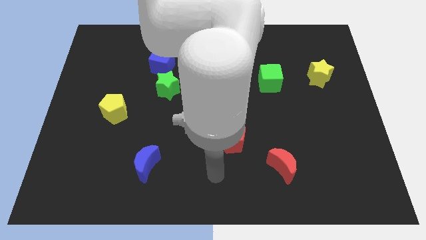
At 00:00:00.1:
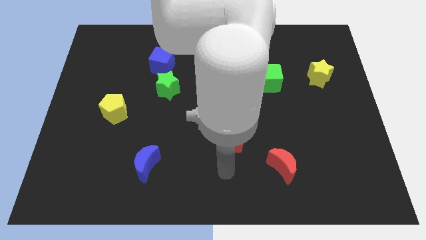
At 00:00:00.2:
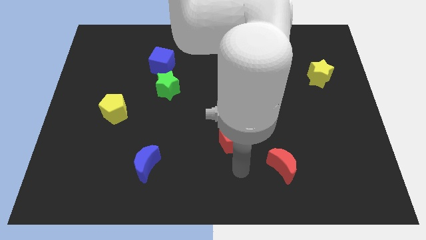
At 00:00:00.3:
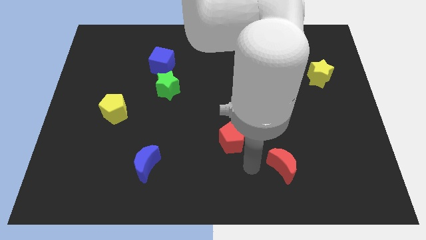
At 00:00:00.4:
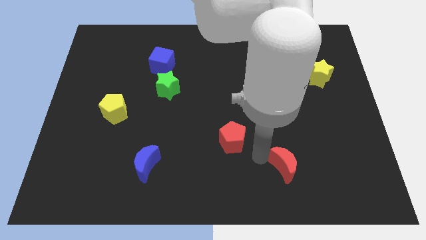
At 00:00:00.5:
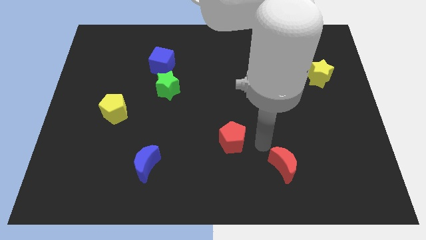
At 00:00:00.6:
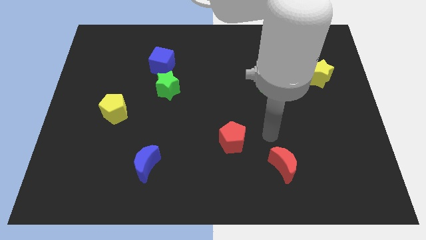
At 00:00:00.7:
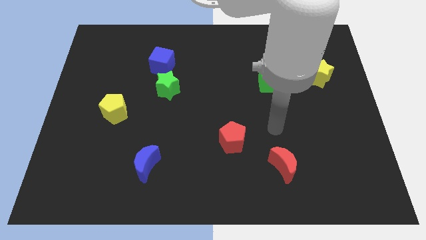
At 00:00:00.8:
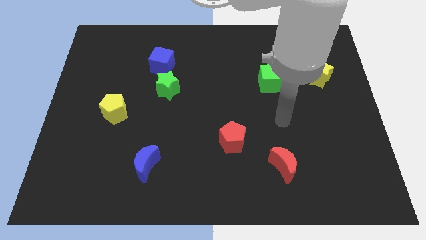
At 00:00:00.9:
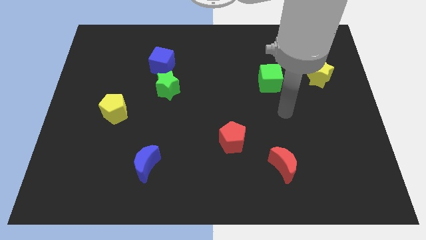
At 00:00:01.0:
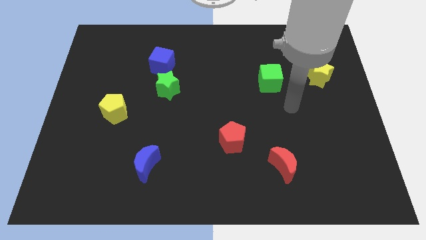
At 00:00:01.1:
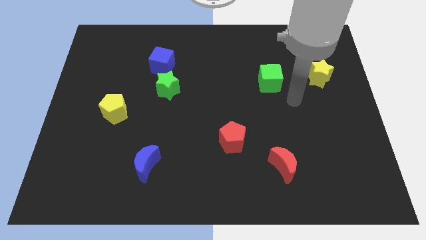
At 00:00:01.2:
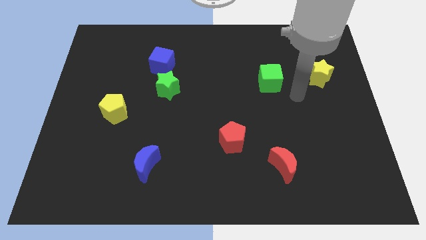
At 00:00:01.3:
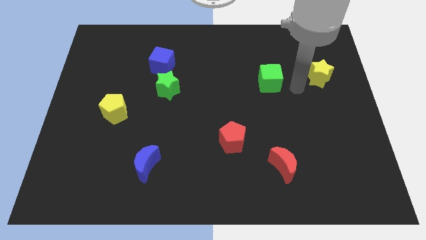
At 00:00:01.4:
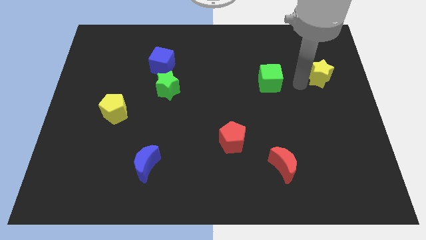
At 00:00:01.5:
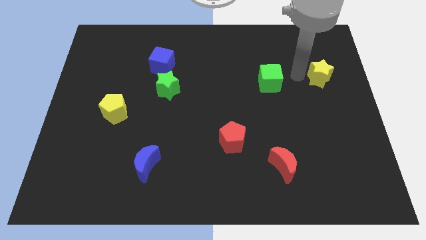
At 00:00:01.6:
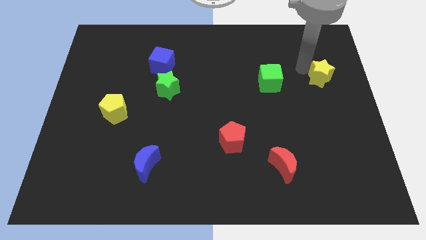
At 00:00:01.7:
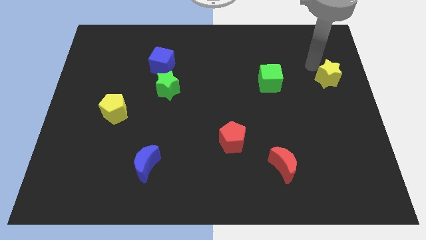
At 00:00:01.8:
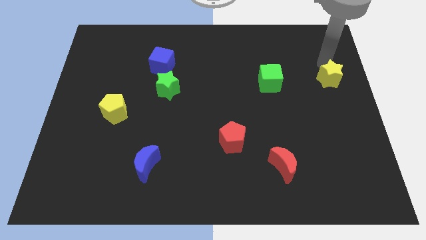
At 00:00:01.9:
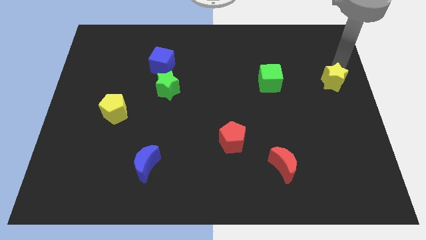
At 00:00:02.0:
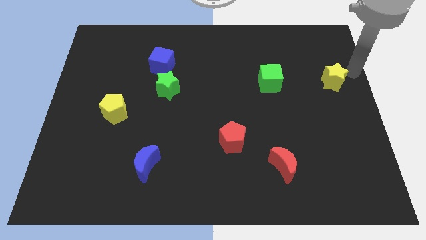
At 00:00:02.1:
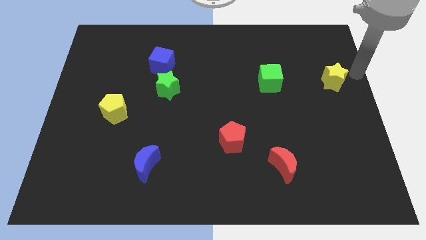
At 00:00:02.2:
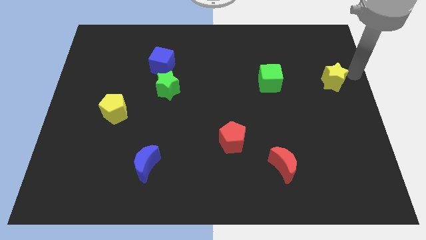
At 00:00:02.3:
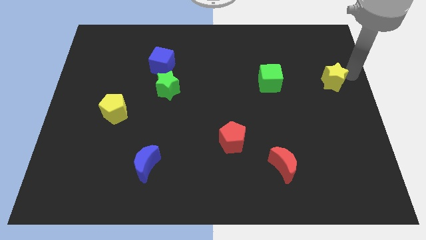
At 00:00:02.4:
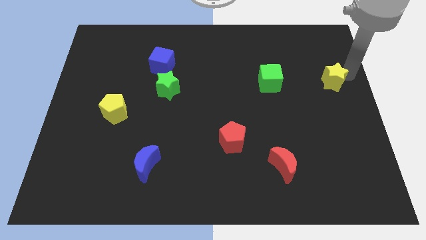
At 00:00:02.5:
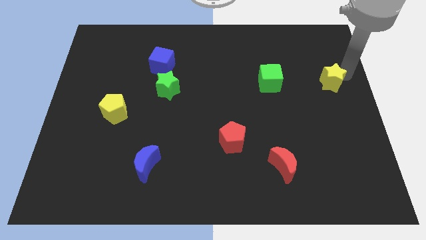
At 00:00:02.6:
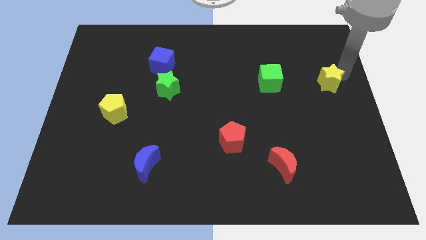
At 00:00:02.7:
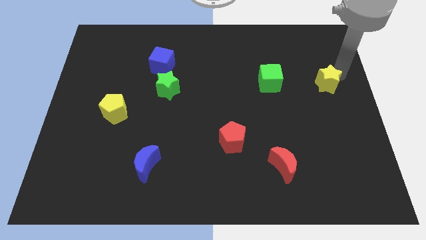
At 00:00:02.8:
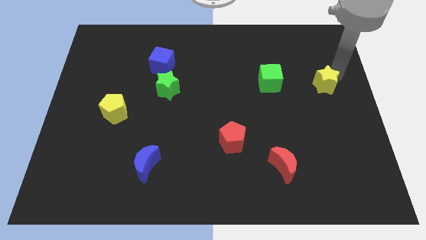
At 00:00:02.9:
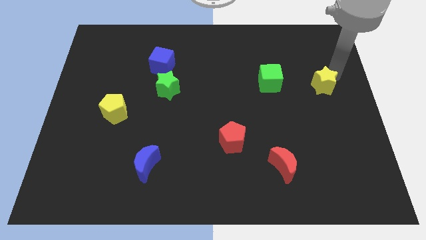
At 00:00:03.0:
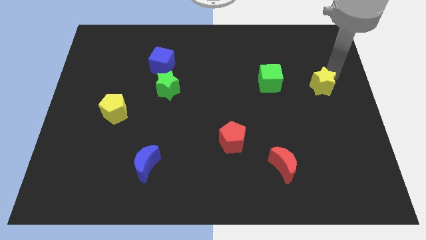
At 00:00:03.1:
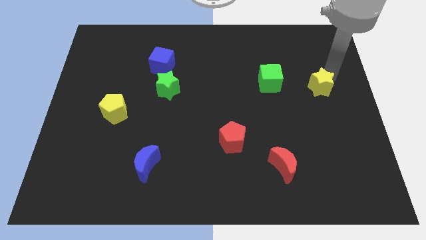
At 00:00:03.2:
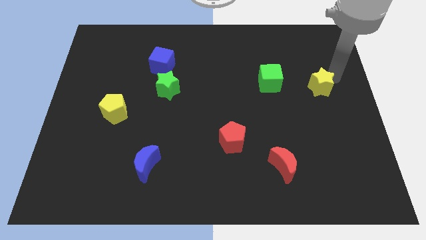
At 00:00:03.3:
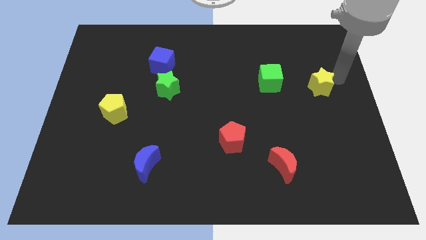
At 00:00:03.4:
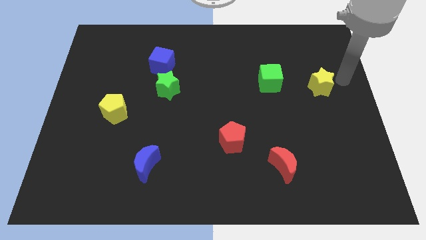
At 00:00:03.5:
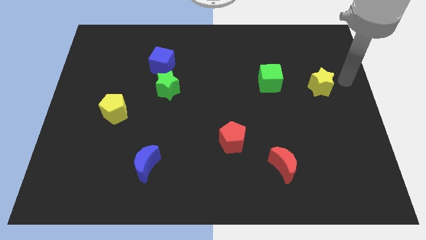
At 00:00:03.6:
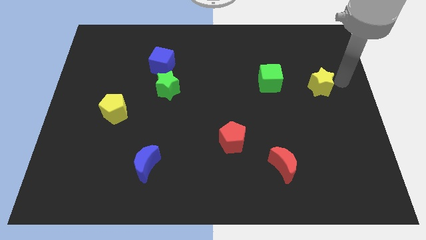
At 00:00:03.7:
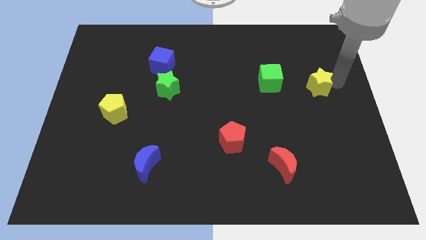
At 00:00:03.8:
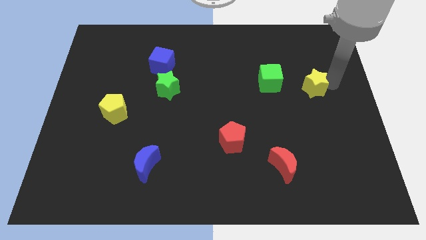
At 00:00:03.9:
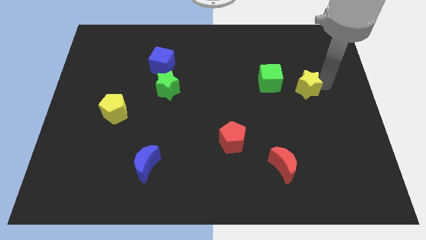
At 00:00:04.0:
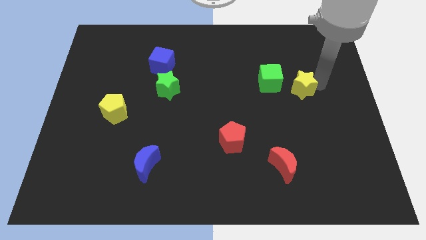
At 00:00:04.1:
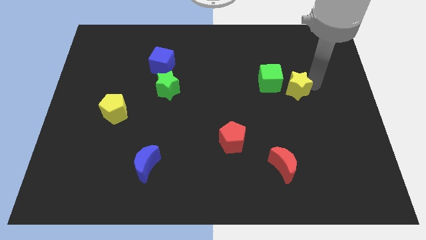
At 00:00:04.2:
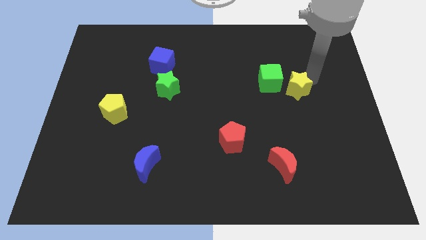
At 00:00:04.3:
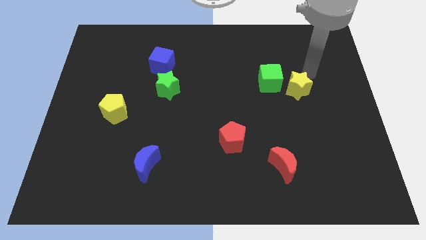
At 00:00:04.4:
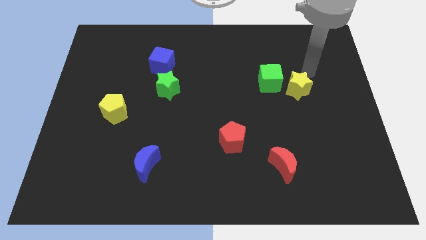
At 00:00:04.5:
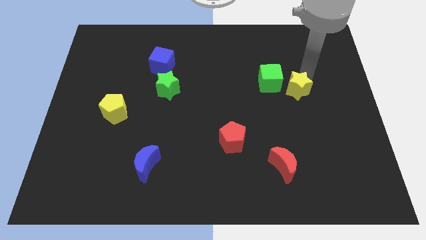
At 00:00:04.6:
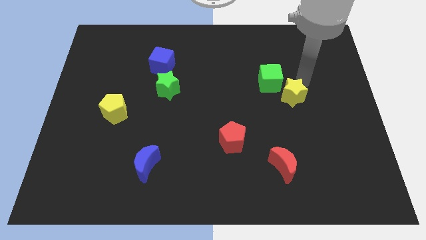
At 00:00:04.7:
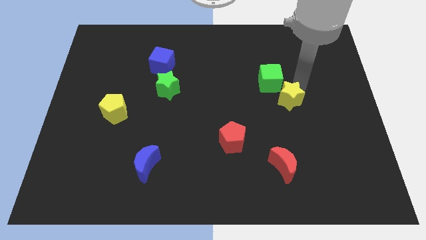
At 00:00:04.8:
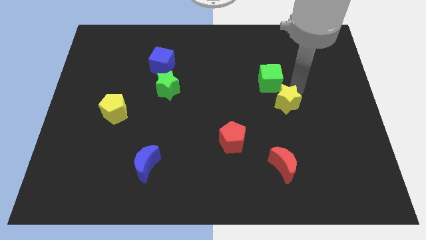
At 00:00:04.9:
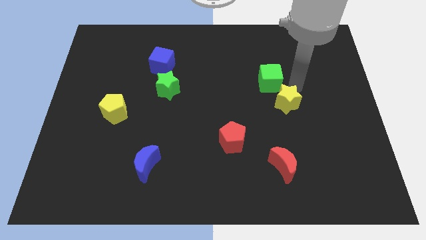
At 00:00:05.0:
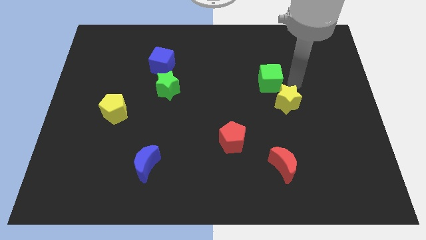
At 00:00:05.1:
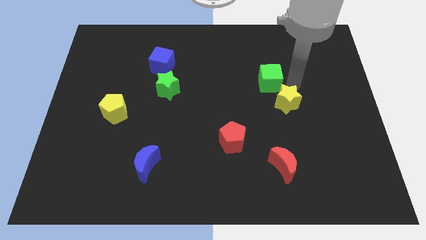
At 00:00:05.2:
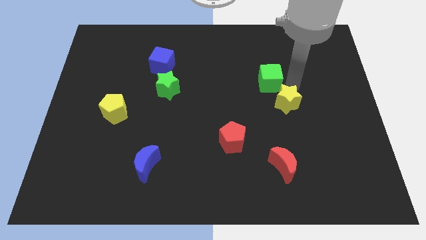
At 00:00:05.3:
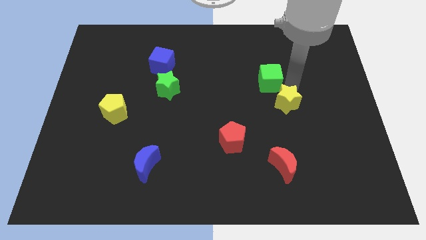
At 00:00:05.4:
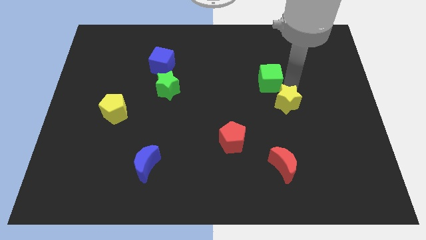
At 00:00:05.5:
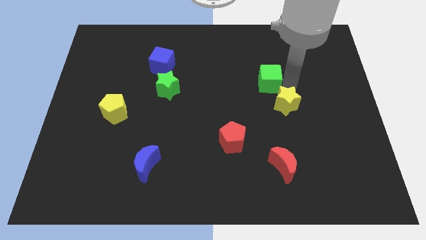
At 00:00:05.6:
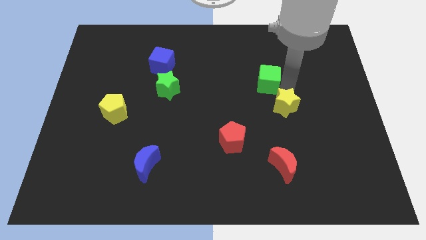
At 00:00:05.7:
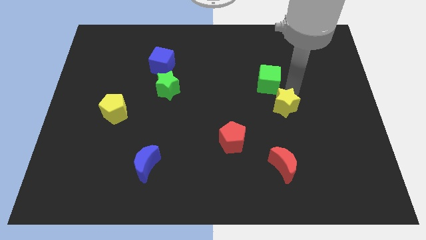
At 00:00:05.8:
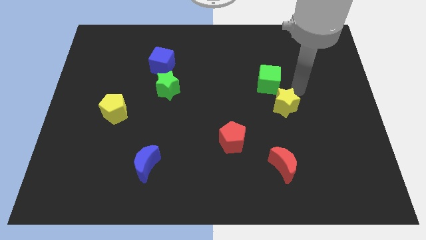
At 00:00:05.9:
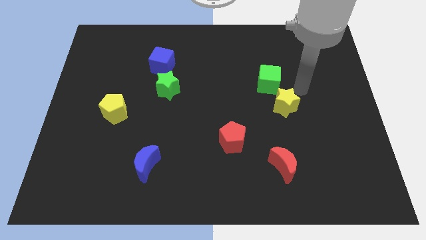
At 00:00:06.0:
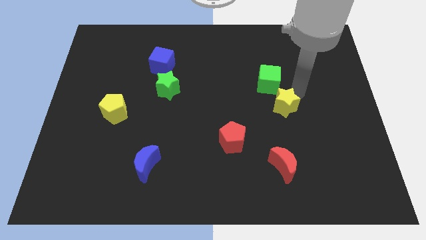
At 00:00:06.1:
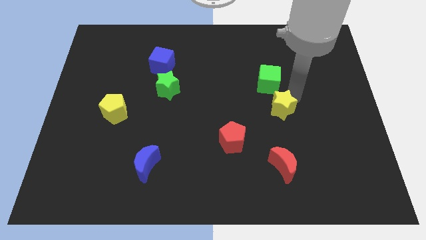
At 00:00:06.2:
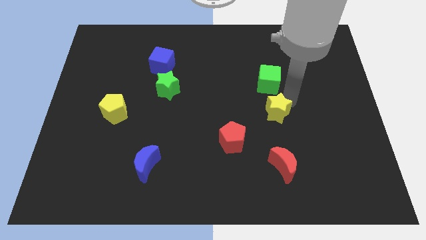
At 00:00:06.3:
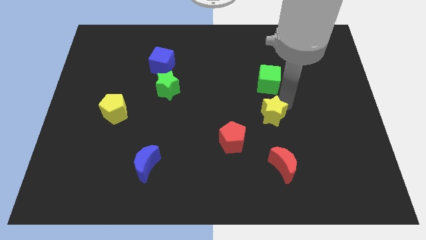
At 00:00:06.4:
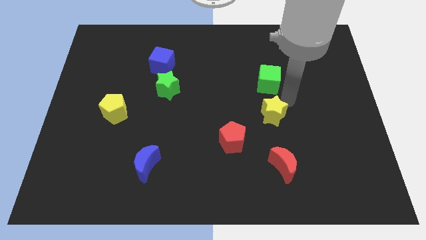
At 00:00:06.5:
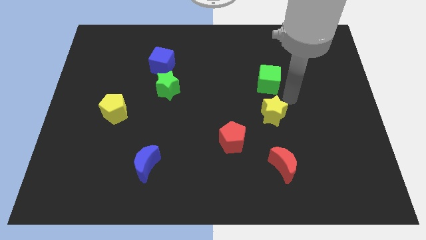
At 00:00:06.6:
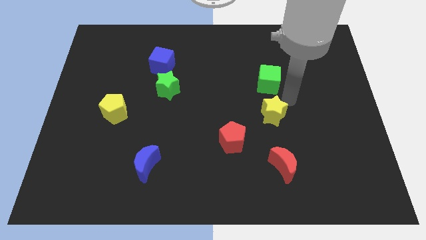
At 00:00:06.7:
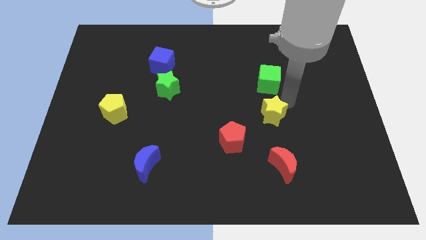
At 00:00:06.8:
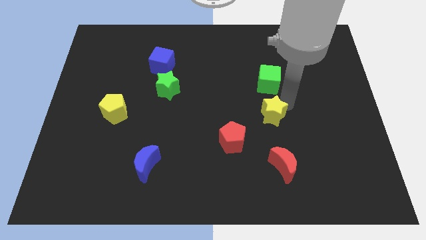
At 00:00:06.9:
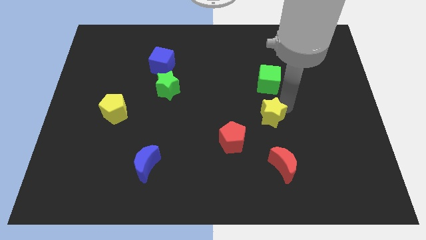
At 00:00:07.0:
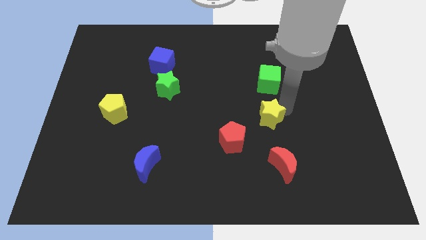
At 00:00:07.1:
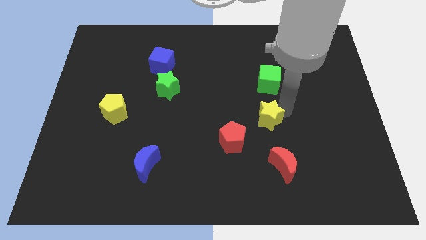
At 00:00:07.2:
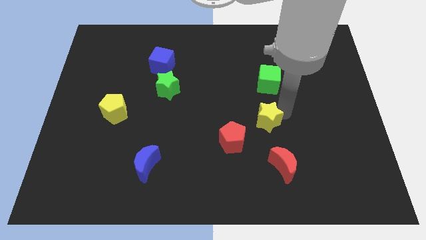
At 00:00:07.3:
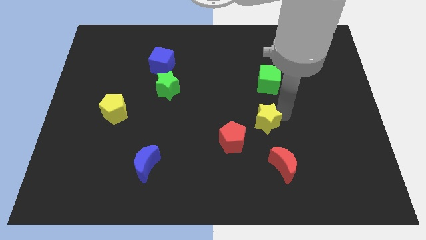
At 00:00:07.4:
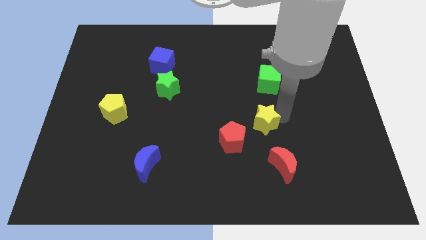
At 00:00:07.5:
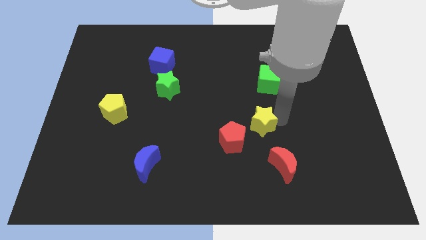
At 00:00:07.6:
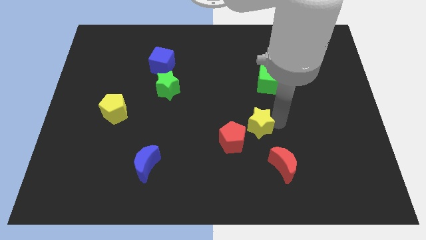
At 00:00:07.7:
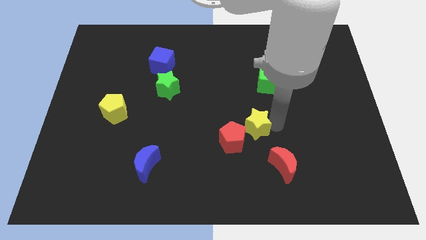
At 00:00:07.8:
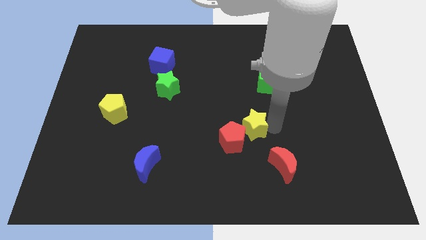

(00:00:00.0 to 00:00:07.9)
move the yellow star next to the red pentagon
